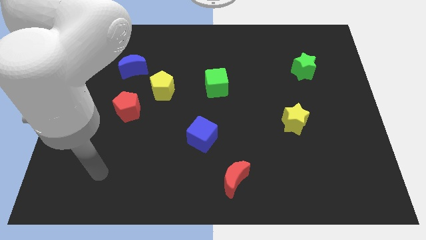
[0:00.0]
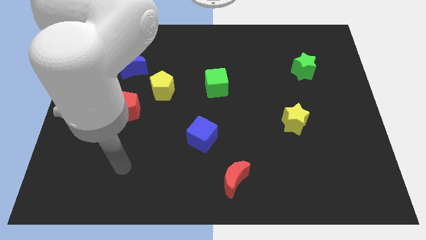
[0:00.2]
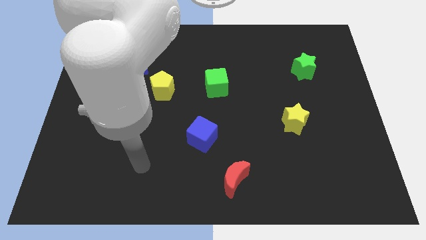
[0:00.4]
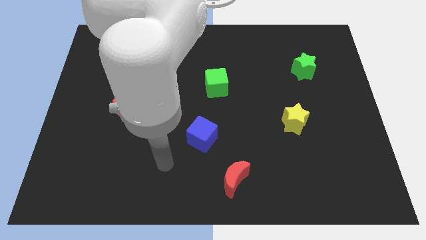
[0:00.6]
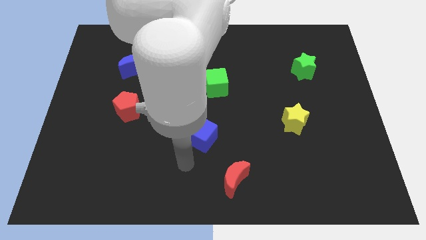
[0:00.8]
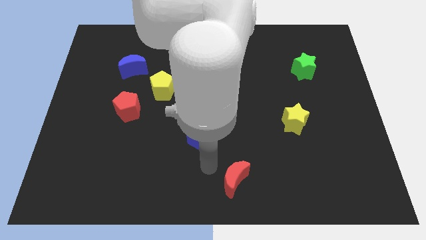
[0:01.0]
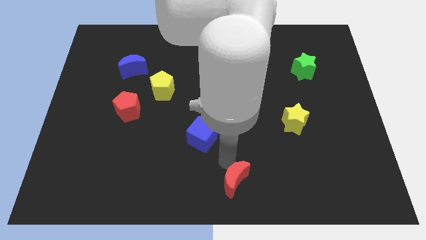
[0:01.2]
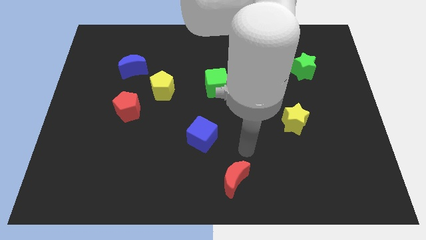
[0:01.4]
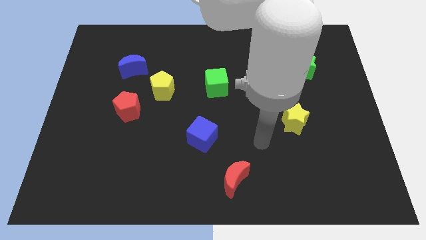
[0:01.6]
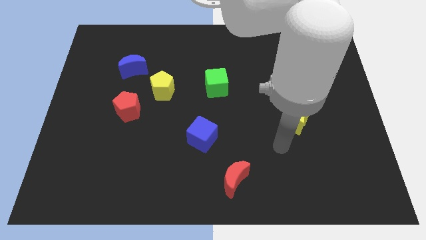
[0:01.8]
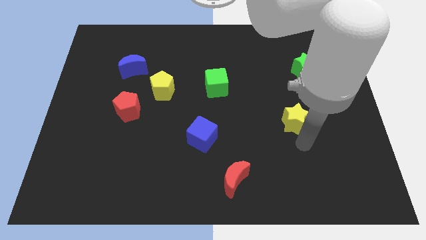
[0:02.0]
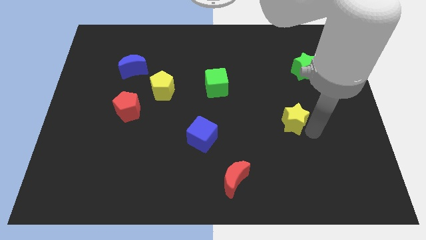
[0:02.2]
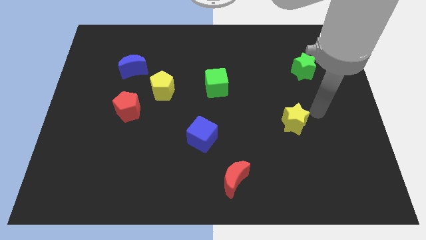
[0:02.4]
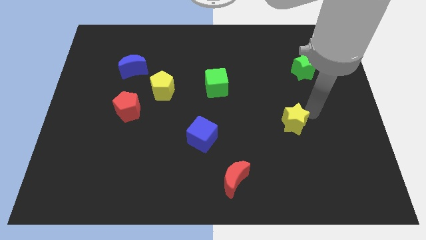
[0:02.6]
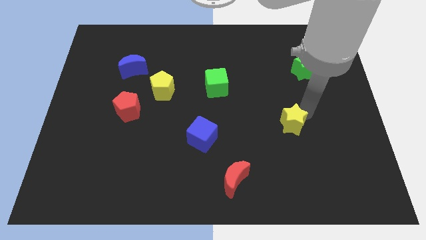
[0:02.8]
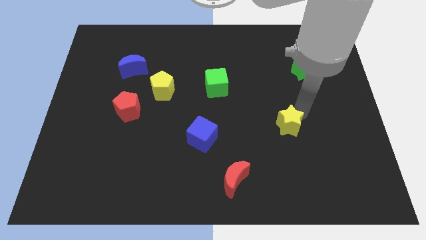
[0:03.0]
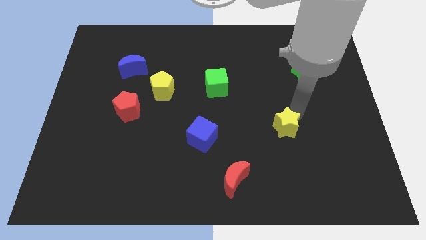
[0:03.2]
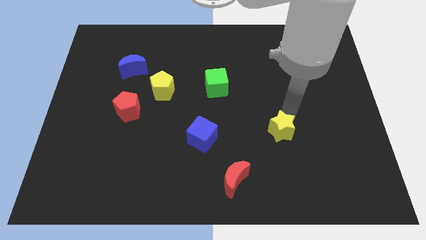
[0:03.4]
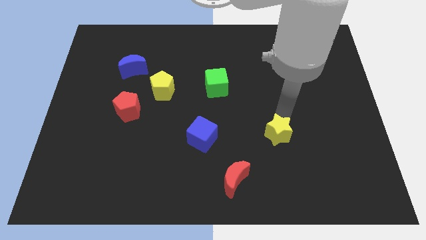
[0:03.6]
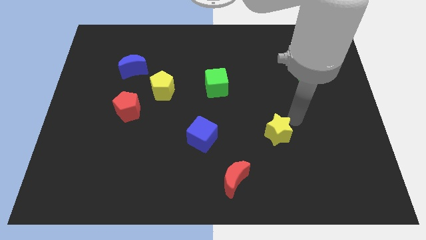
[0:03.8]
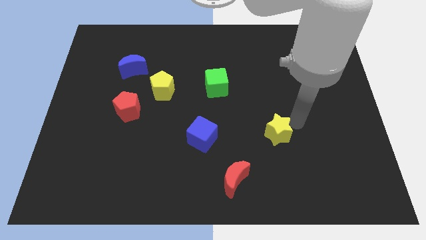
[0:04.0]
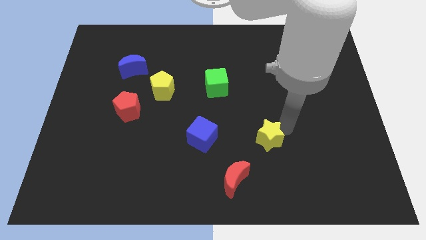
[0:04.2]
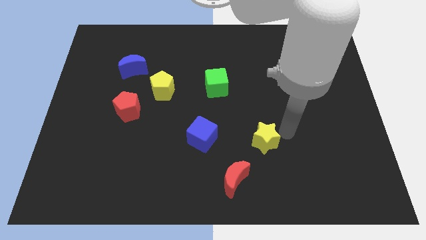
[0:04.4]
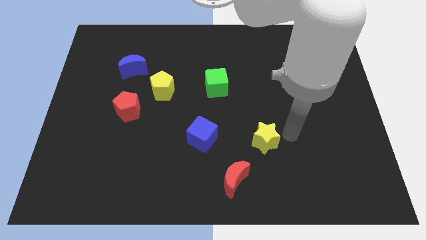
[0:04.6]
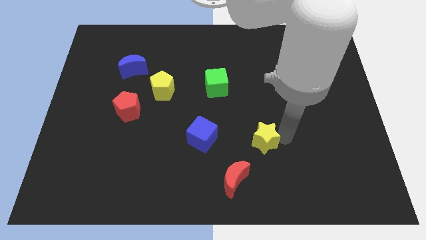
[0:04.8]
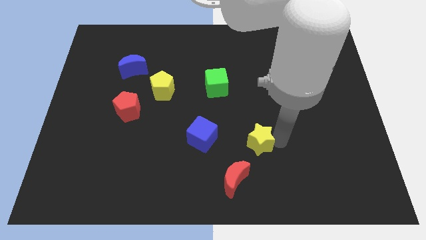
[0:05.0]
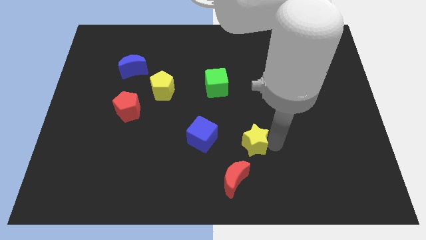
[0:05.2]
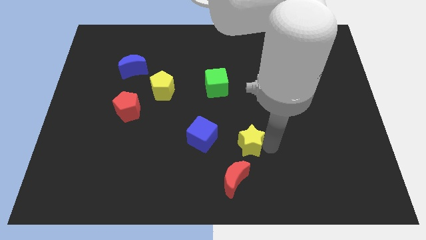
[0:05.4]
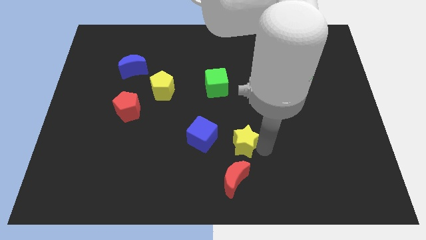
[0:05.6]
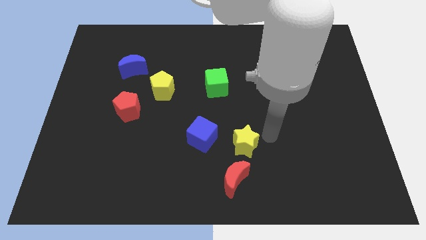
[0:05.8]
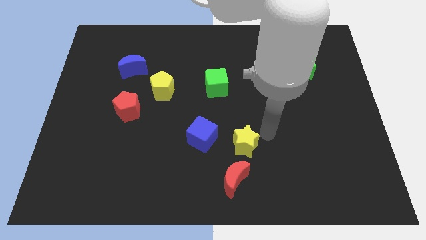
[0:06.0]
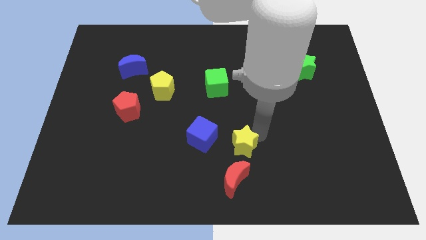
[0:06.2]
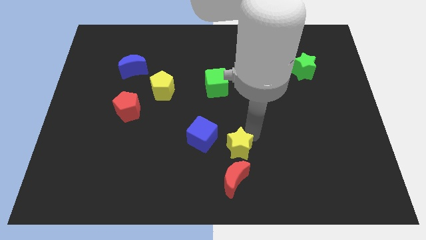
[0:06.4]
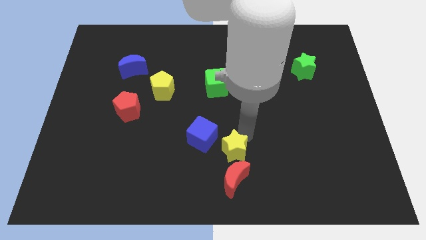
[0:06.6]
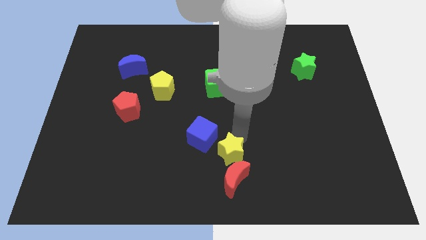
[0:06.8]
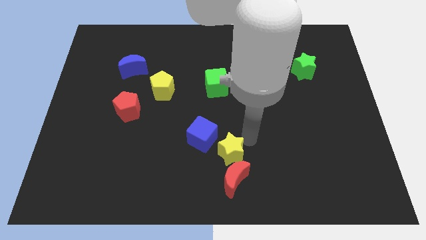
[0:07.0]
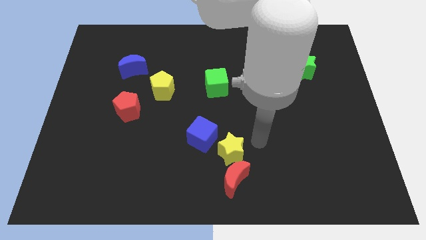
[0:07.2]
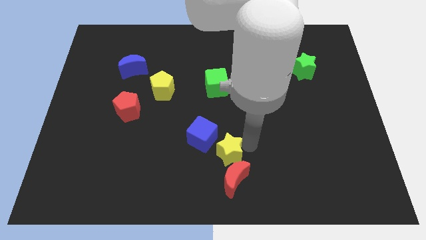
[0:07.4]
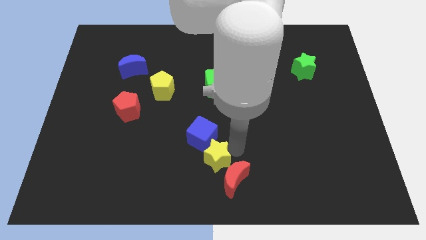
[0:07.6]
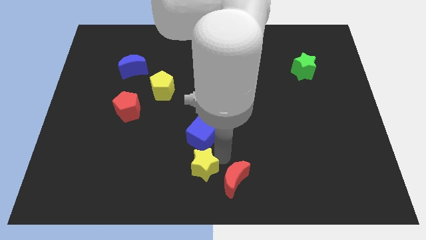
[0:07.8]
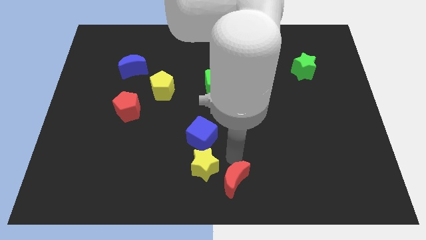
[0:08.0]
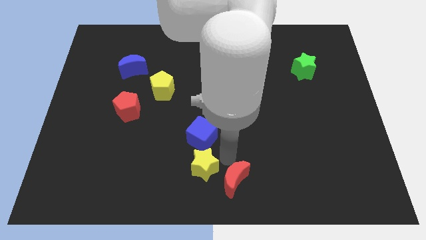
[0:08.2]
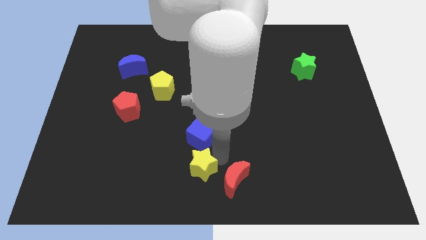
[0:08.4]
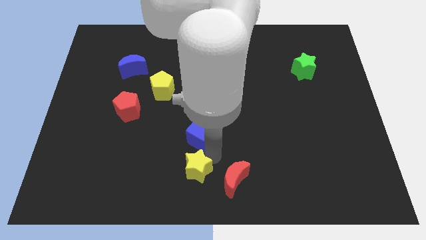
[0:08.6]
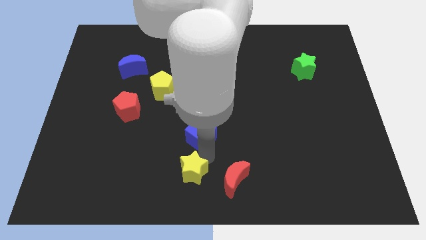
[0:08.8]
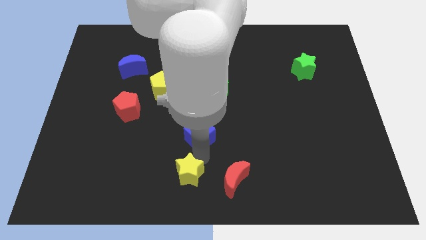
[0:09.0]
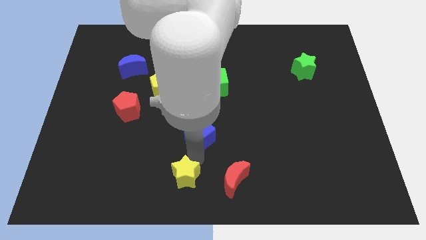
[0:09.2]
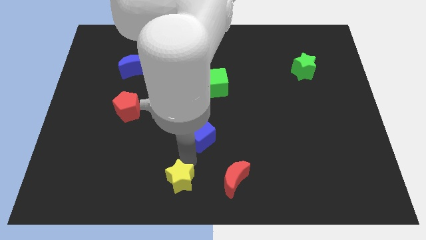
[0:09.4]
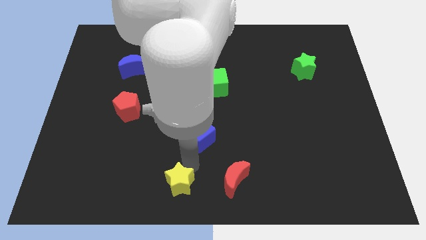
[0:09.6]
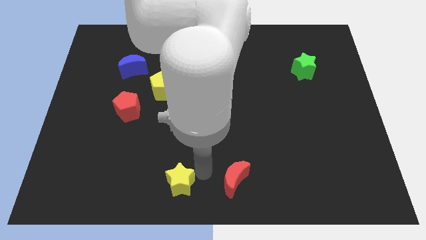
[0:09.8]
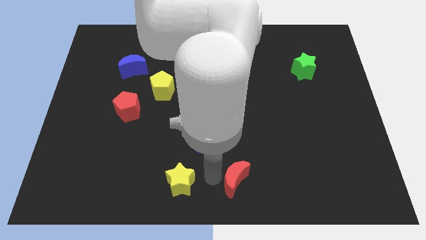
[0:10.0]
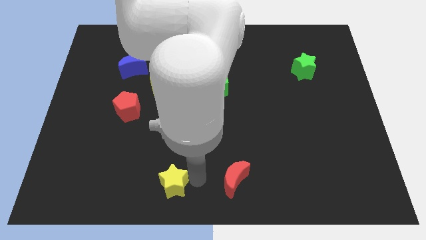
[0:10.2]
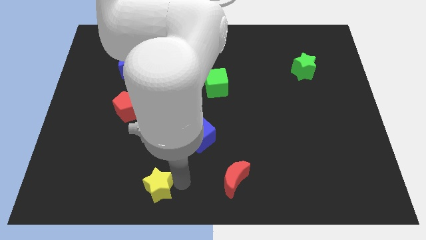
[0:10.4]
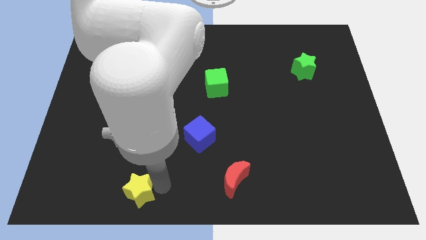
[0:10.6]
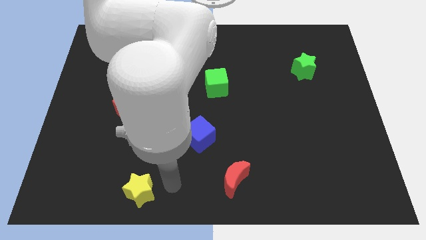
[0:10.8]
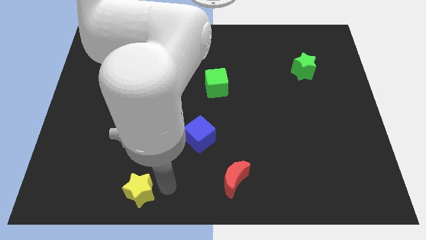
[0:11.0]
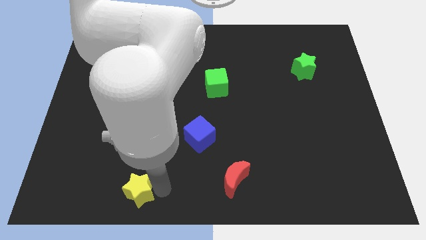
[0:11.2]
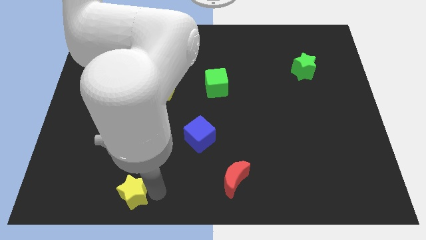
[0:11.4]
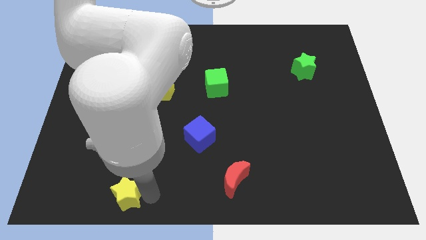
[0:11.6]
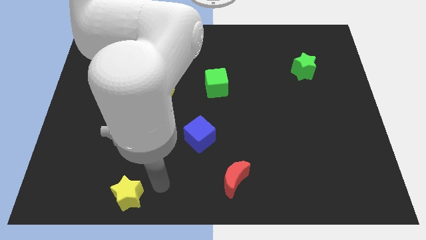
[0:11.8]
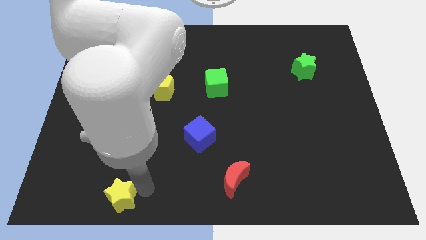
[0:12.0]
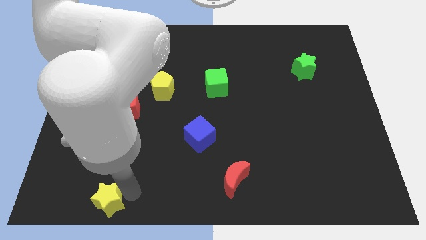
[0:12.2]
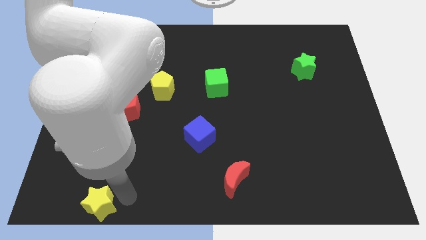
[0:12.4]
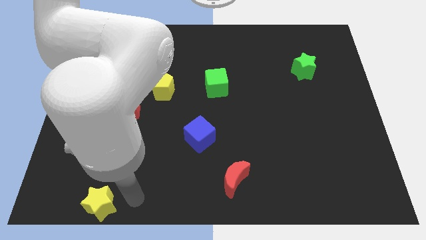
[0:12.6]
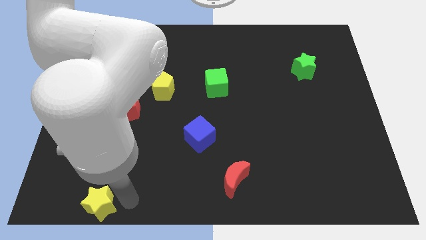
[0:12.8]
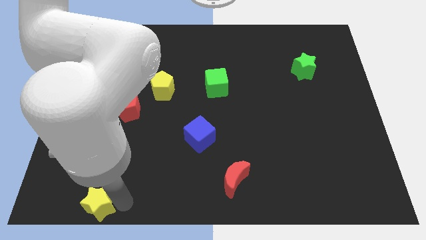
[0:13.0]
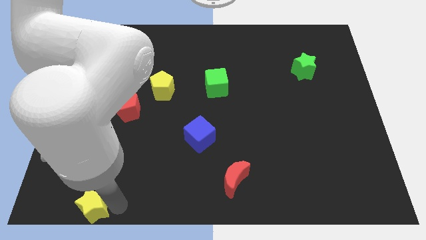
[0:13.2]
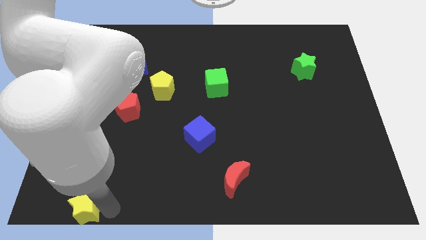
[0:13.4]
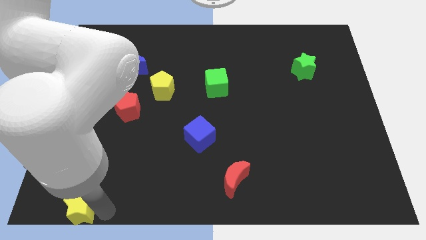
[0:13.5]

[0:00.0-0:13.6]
move the yellow star to the bottom left
